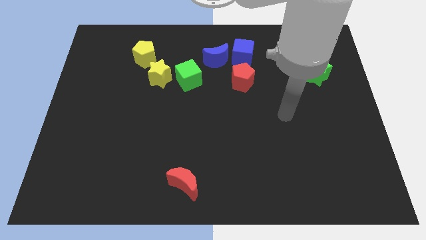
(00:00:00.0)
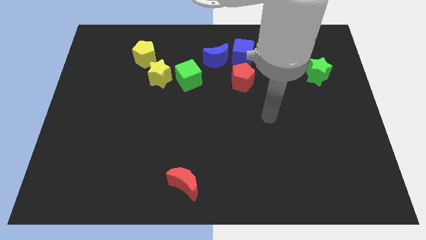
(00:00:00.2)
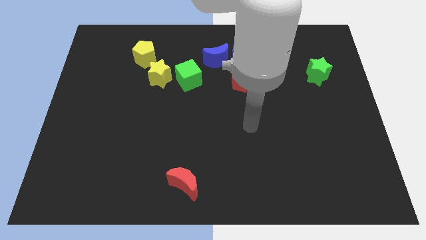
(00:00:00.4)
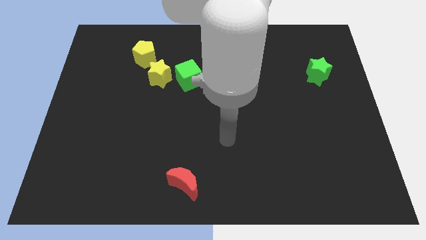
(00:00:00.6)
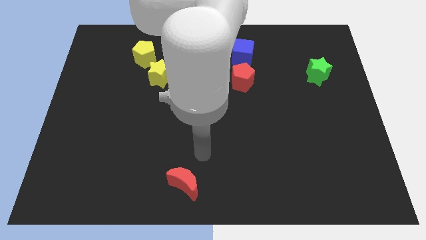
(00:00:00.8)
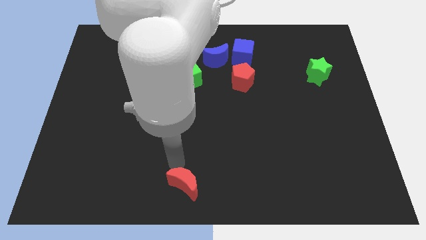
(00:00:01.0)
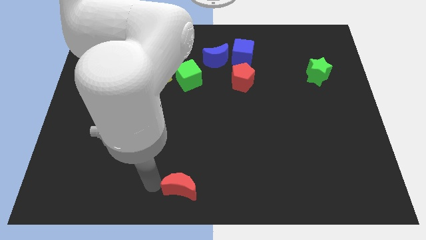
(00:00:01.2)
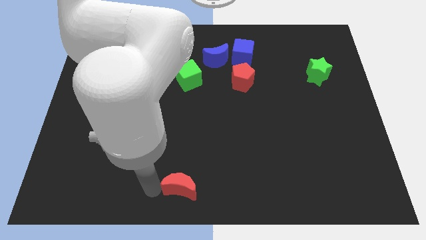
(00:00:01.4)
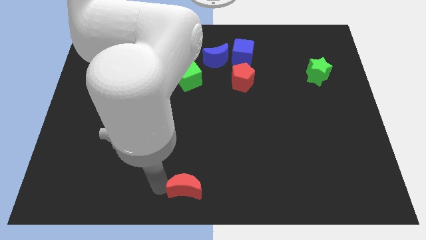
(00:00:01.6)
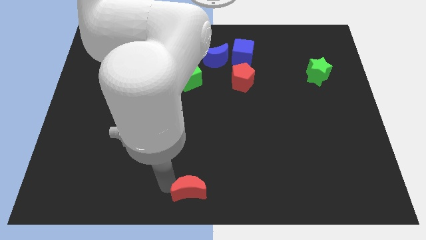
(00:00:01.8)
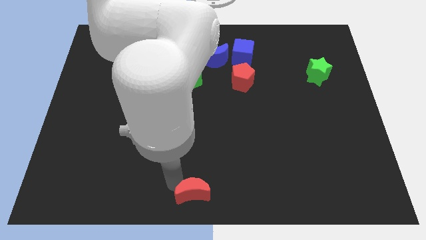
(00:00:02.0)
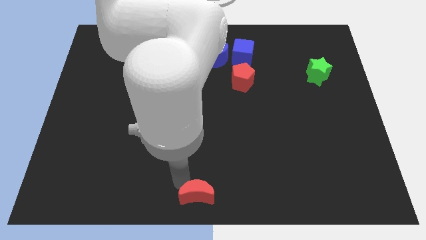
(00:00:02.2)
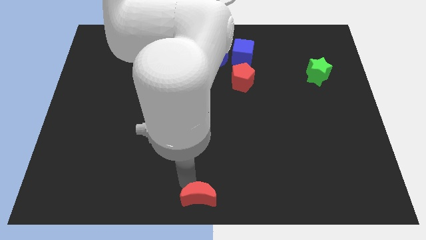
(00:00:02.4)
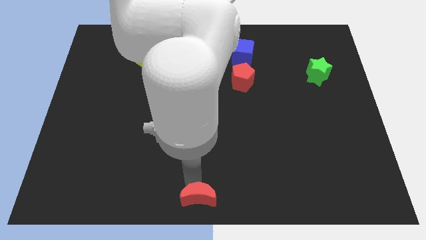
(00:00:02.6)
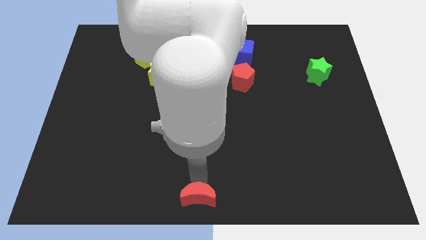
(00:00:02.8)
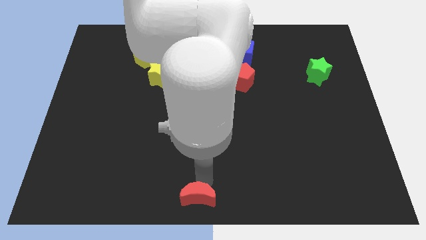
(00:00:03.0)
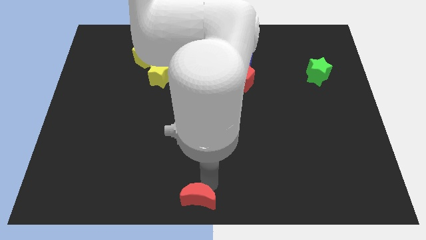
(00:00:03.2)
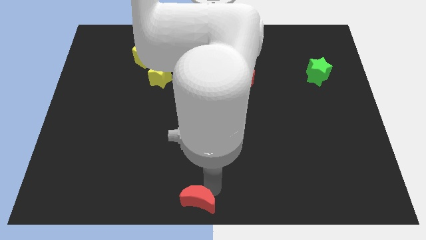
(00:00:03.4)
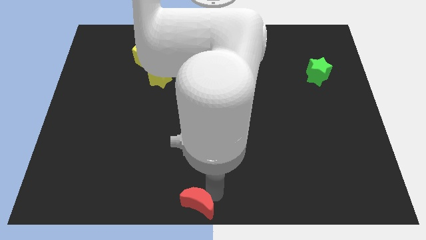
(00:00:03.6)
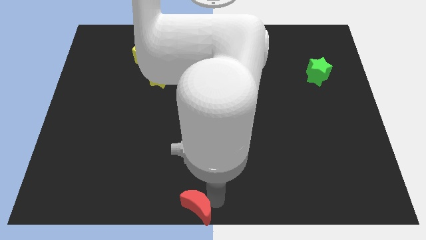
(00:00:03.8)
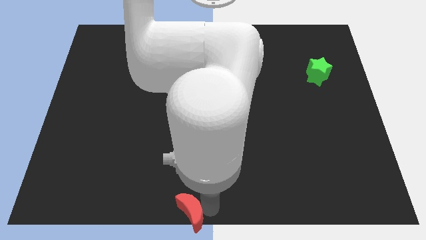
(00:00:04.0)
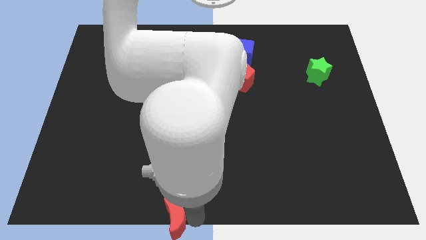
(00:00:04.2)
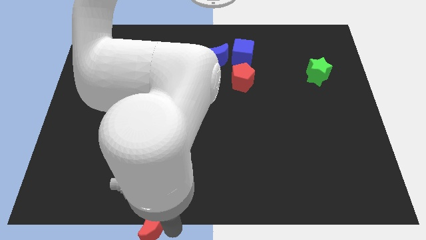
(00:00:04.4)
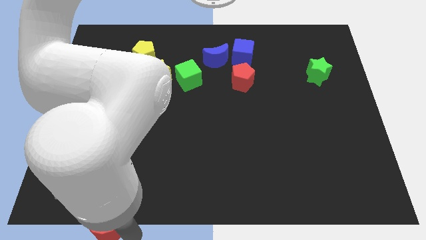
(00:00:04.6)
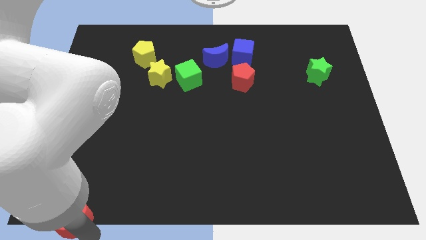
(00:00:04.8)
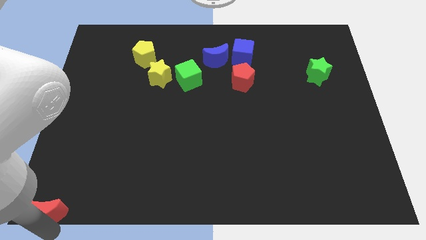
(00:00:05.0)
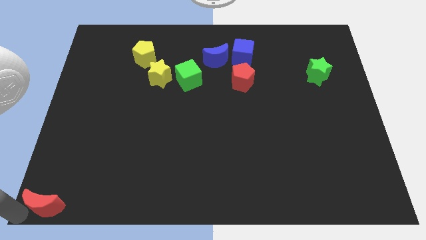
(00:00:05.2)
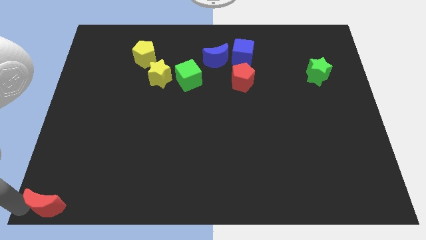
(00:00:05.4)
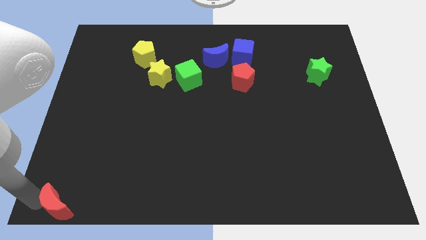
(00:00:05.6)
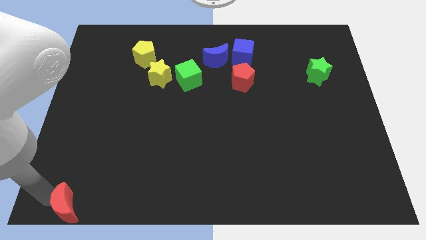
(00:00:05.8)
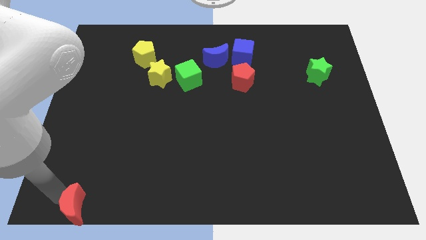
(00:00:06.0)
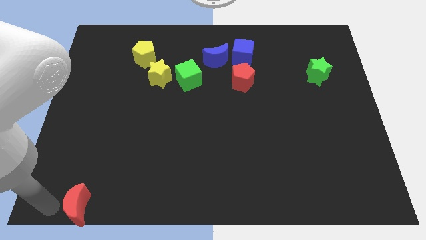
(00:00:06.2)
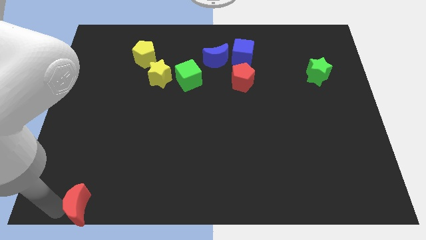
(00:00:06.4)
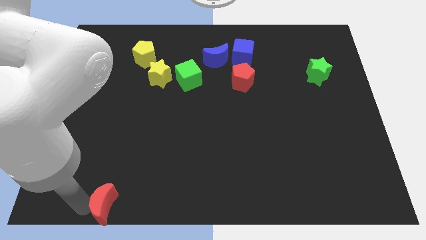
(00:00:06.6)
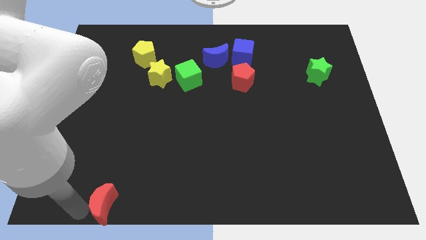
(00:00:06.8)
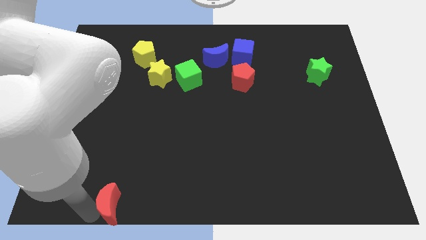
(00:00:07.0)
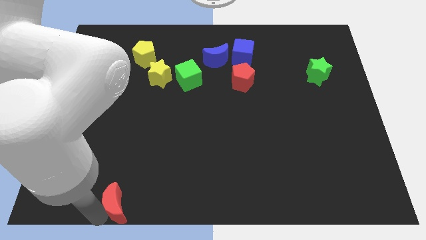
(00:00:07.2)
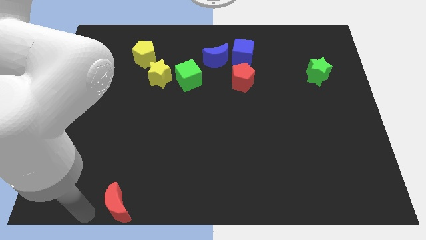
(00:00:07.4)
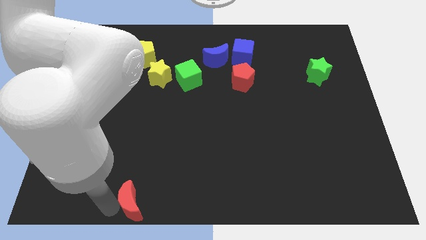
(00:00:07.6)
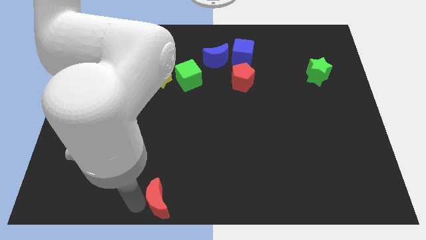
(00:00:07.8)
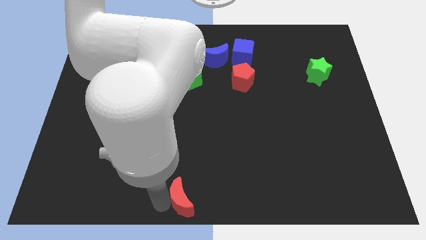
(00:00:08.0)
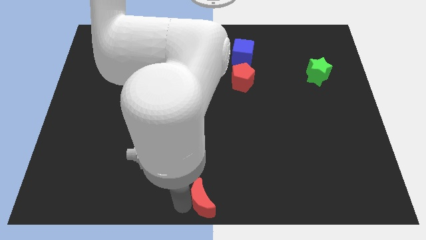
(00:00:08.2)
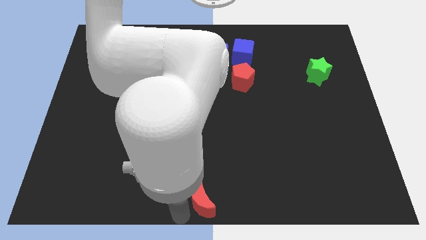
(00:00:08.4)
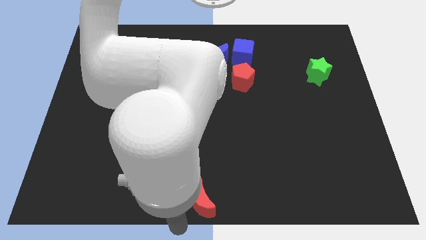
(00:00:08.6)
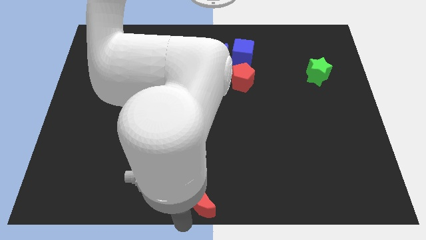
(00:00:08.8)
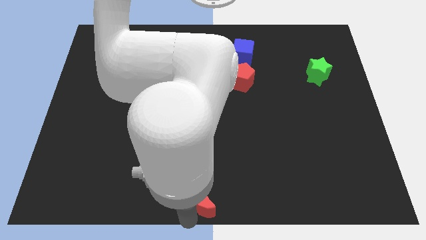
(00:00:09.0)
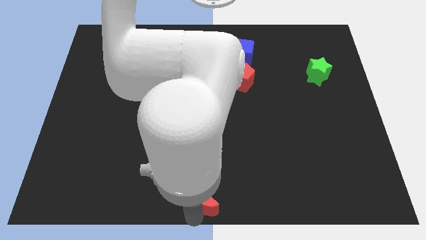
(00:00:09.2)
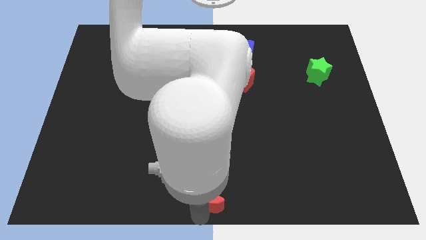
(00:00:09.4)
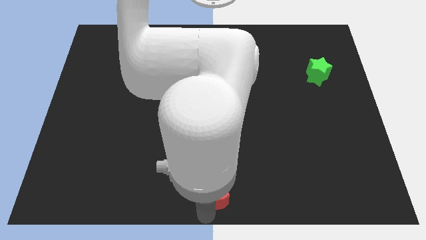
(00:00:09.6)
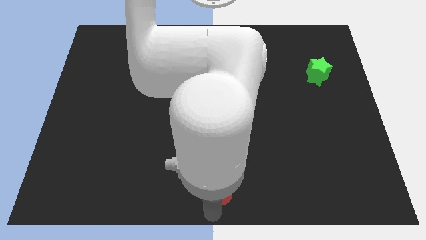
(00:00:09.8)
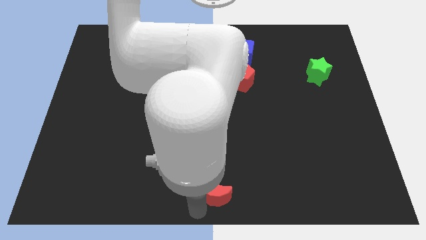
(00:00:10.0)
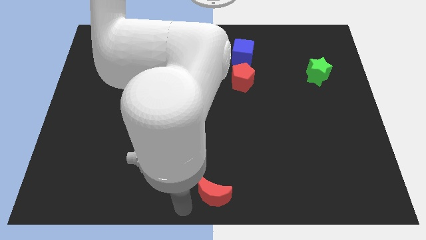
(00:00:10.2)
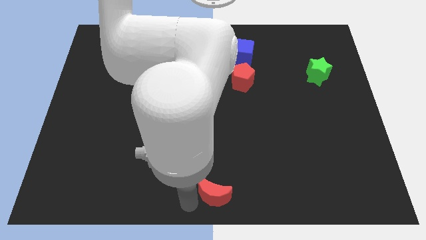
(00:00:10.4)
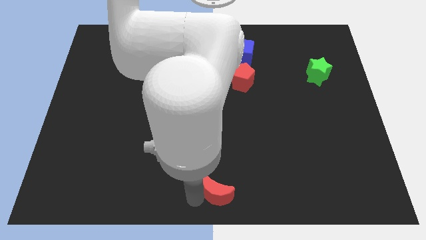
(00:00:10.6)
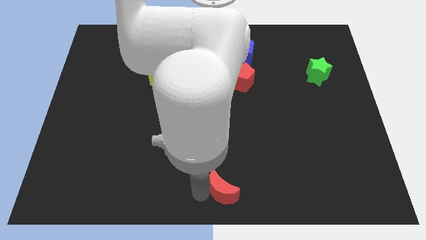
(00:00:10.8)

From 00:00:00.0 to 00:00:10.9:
slightly move the red moon to the right

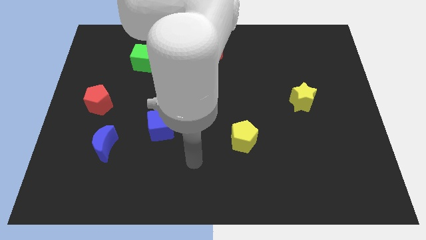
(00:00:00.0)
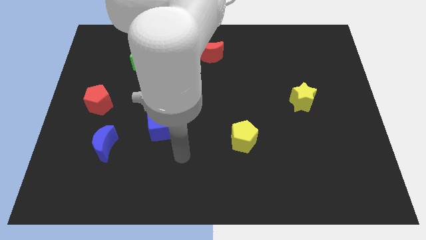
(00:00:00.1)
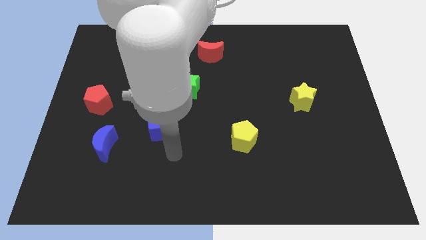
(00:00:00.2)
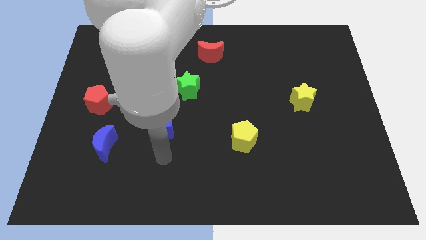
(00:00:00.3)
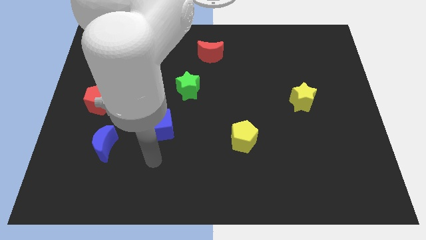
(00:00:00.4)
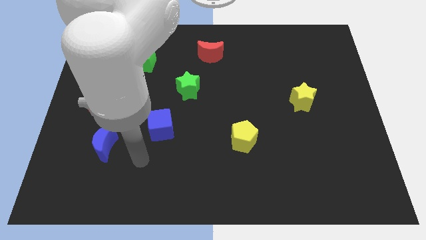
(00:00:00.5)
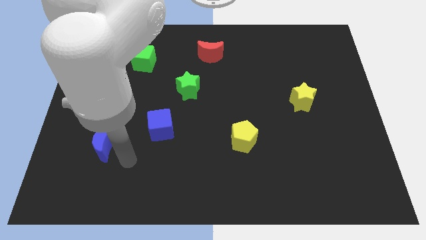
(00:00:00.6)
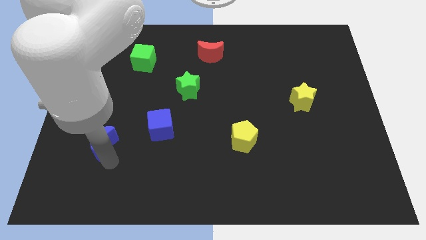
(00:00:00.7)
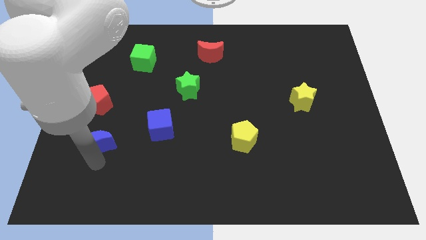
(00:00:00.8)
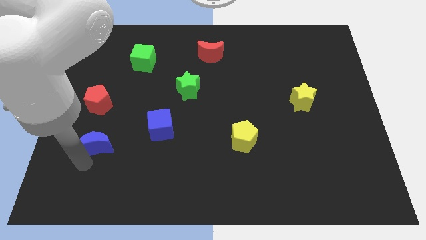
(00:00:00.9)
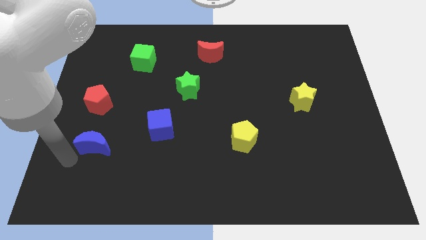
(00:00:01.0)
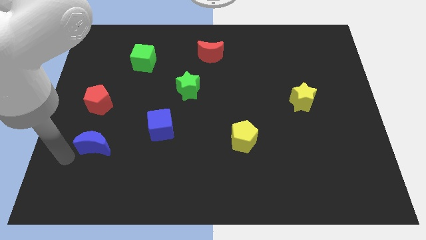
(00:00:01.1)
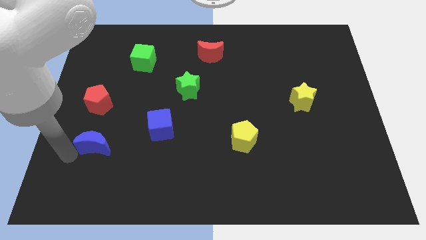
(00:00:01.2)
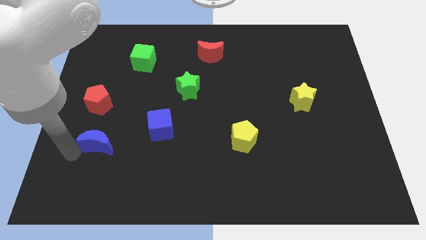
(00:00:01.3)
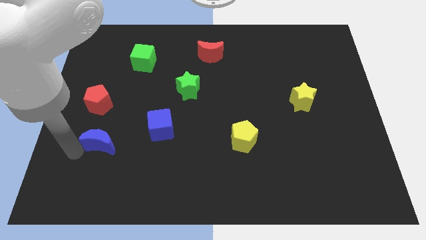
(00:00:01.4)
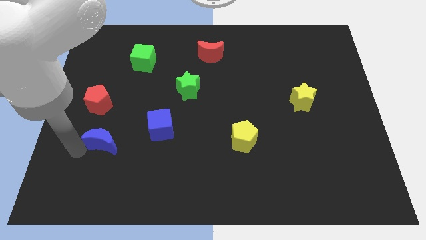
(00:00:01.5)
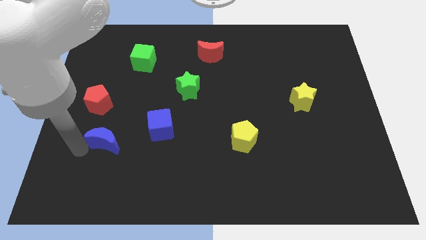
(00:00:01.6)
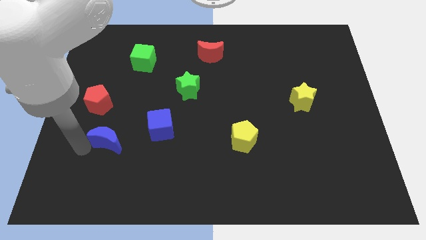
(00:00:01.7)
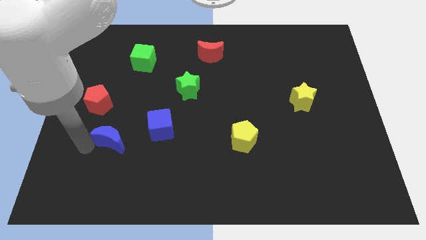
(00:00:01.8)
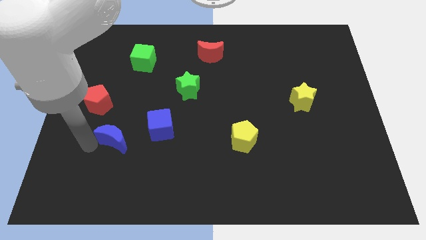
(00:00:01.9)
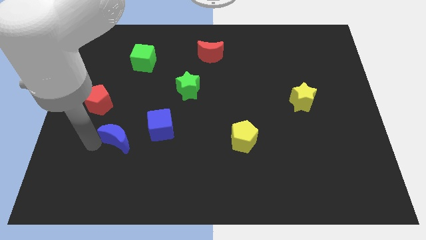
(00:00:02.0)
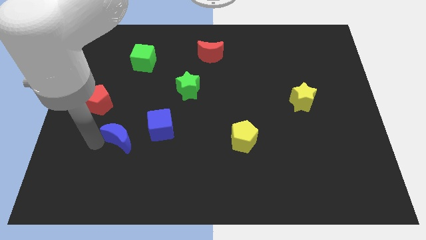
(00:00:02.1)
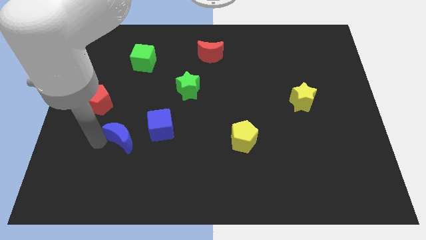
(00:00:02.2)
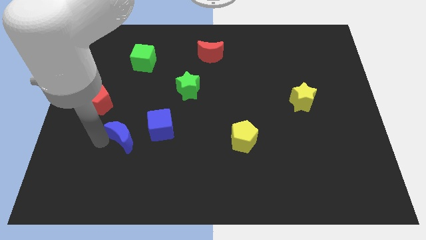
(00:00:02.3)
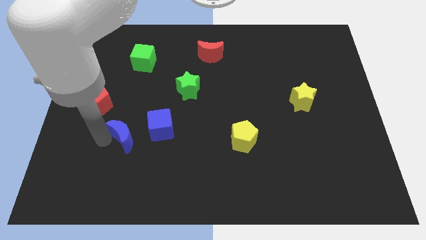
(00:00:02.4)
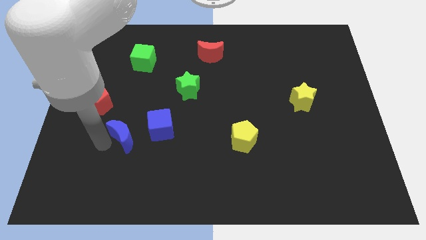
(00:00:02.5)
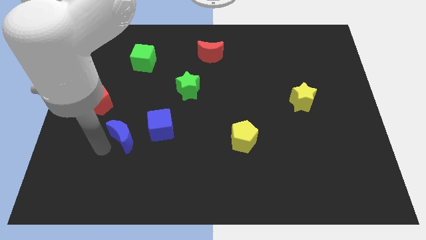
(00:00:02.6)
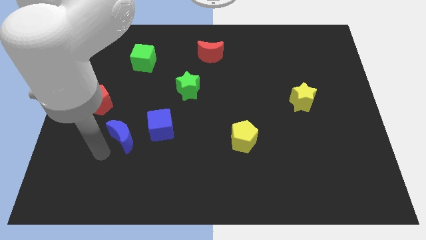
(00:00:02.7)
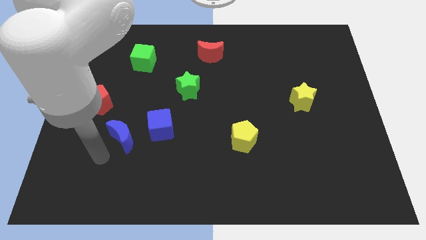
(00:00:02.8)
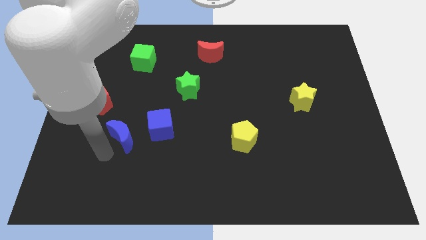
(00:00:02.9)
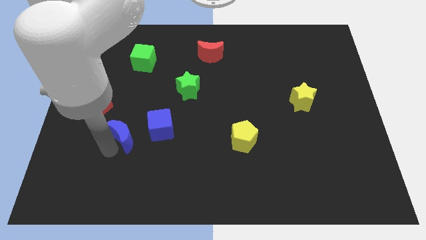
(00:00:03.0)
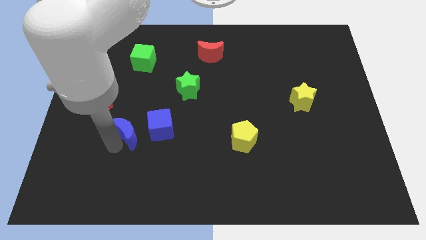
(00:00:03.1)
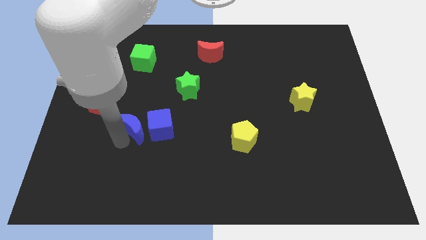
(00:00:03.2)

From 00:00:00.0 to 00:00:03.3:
slightly push the blue moon diagonally upwards and to the right
